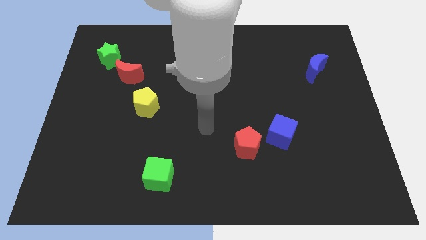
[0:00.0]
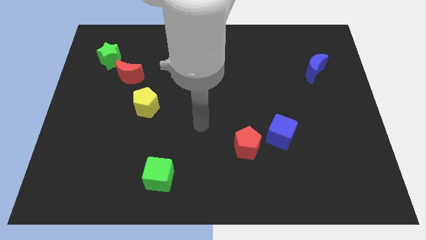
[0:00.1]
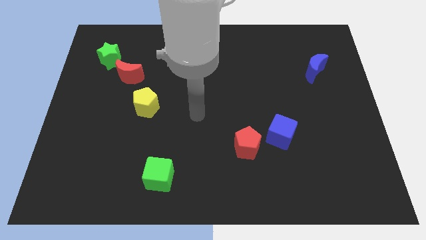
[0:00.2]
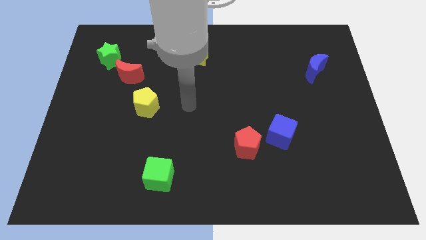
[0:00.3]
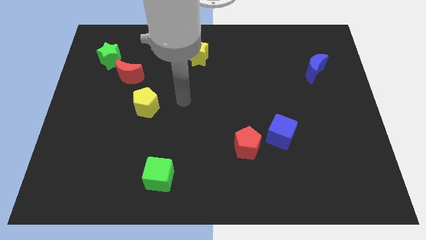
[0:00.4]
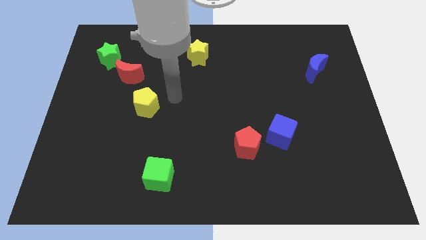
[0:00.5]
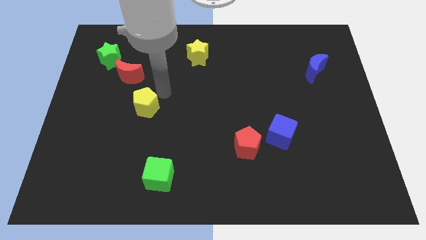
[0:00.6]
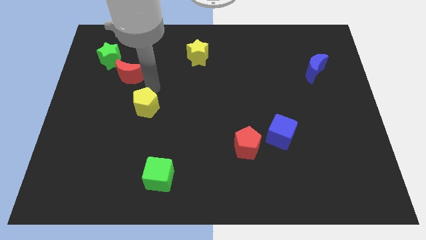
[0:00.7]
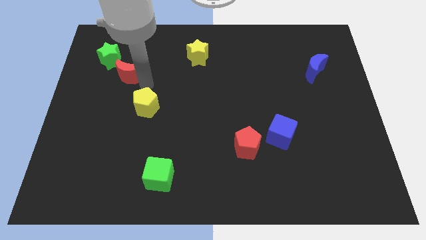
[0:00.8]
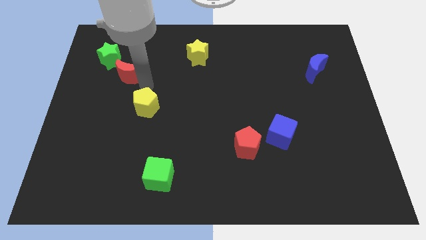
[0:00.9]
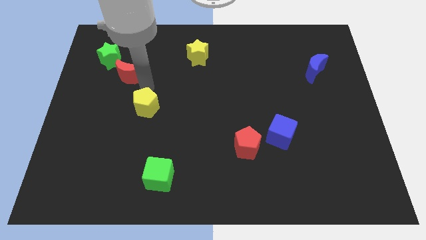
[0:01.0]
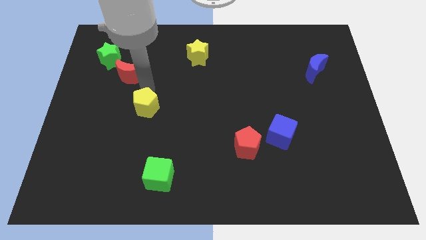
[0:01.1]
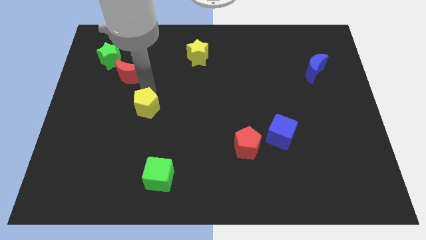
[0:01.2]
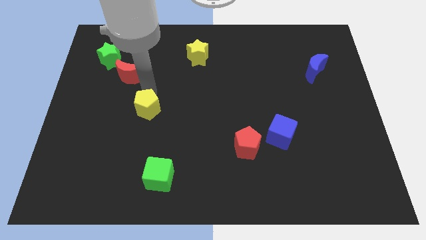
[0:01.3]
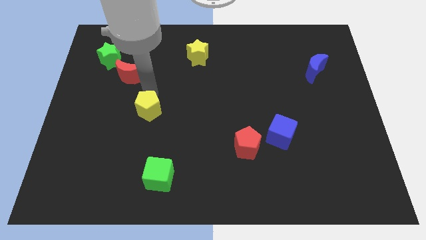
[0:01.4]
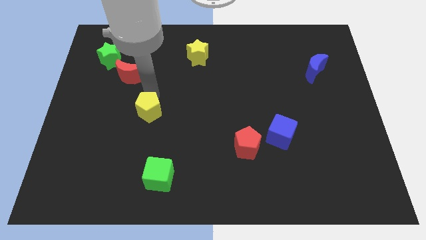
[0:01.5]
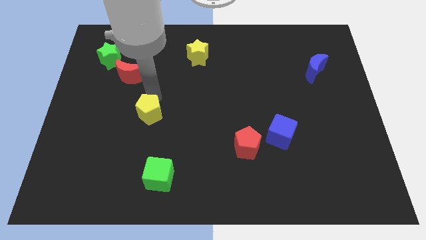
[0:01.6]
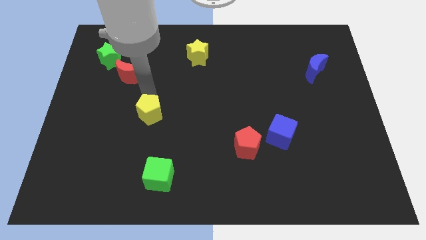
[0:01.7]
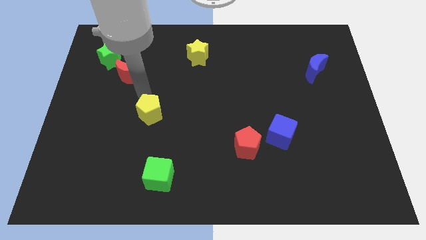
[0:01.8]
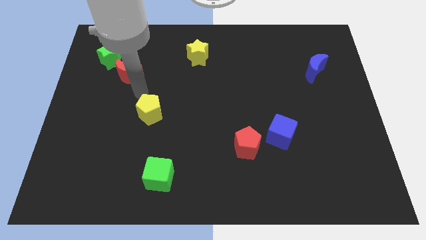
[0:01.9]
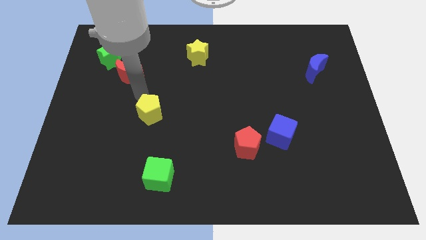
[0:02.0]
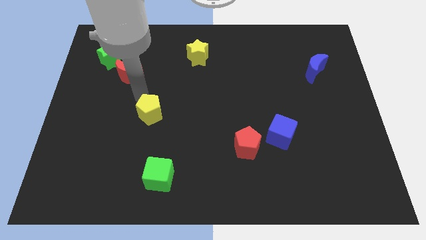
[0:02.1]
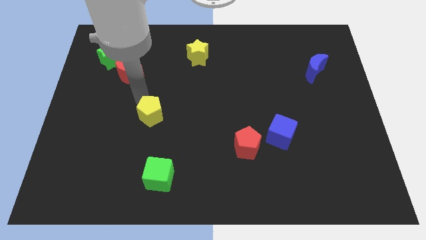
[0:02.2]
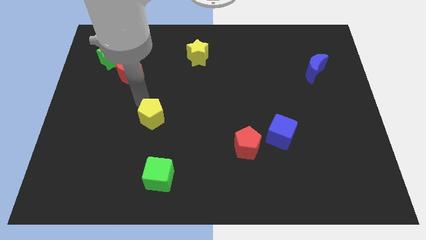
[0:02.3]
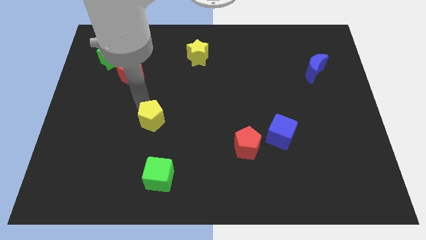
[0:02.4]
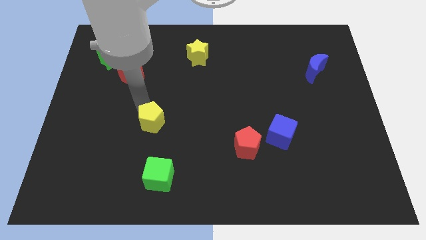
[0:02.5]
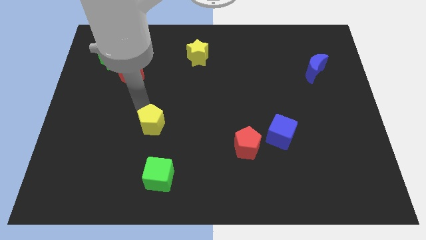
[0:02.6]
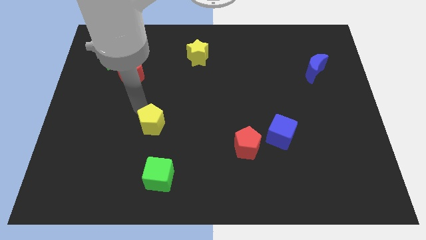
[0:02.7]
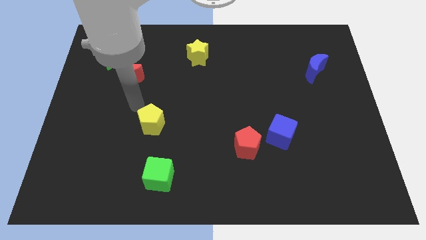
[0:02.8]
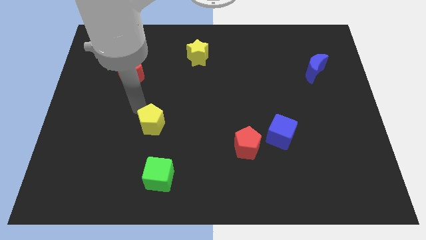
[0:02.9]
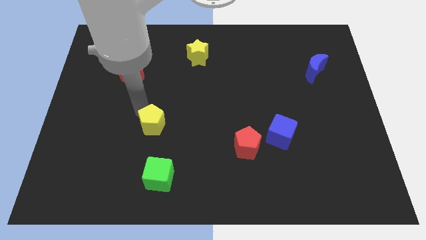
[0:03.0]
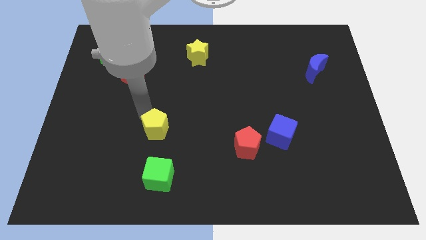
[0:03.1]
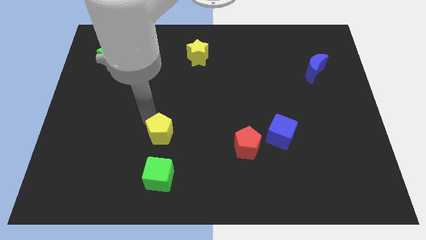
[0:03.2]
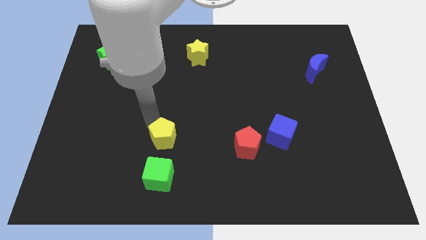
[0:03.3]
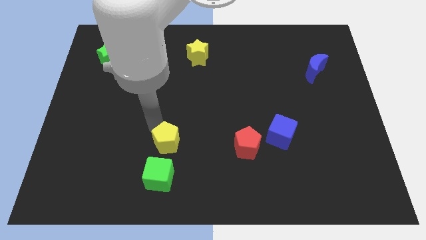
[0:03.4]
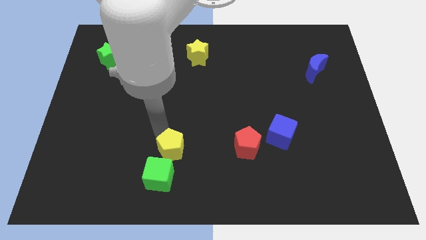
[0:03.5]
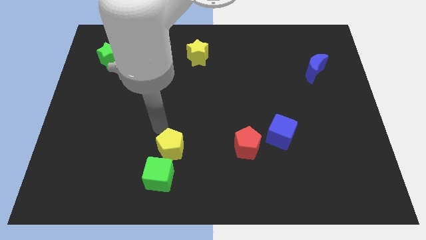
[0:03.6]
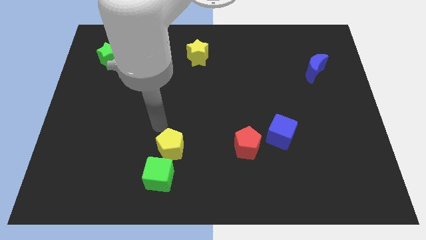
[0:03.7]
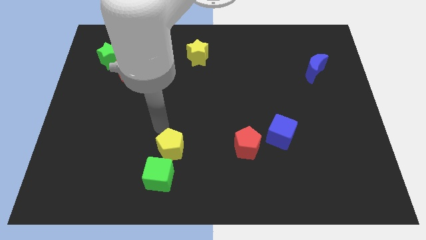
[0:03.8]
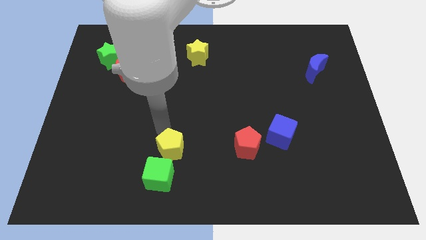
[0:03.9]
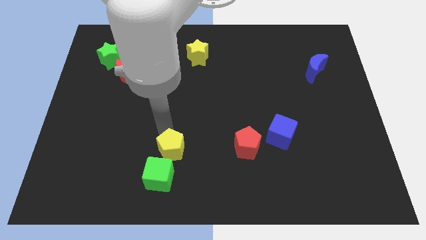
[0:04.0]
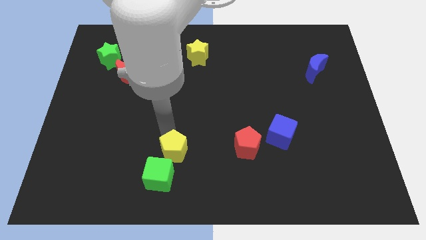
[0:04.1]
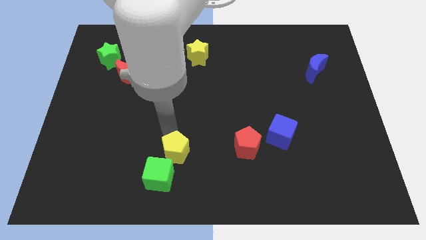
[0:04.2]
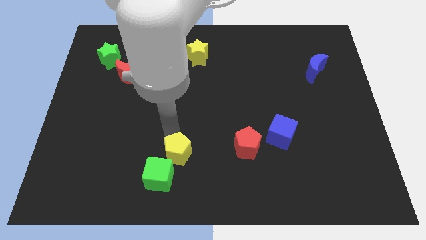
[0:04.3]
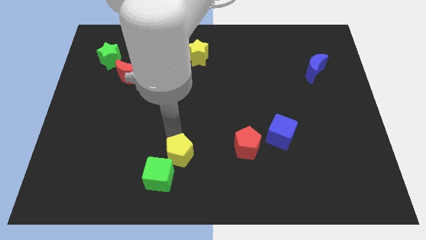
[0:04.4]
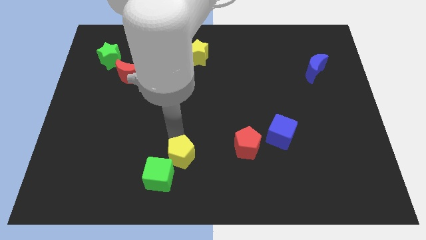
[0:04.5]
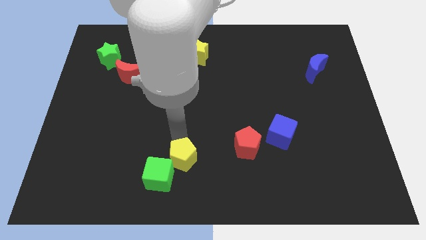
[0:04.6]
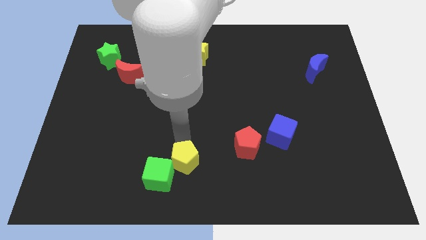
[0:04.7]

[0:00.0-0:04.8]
slide the yellow pentagon to the bottom side

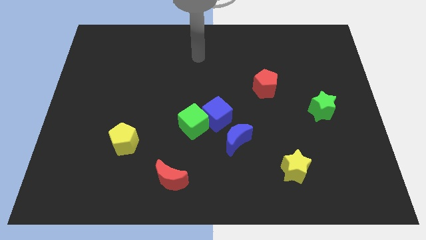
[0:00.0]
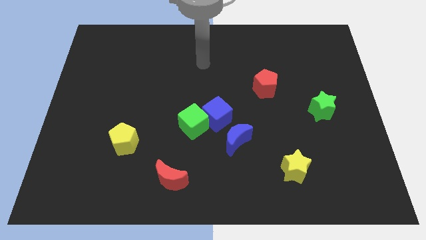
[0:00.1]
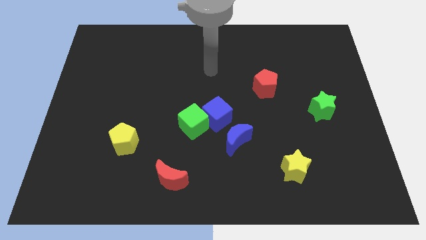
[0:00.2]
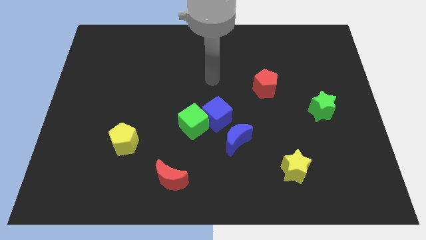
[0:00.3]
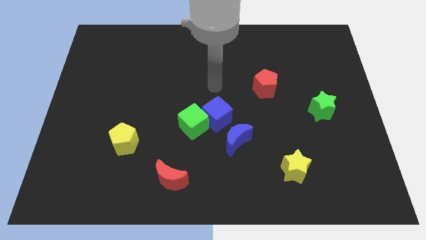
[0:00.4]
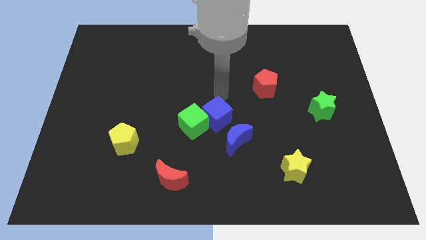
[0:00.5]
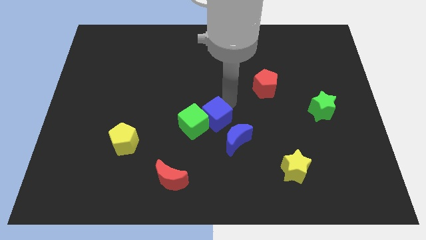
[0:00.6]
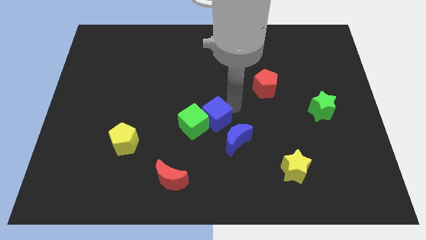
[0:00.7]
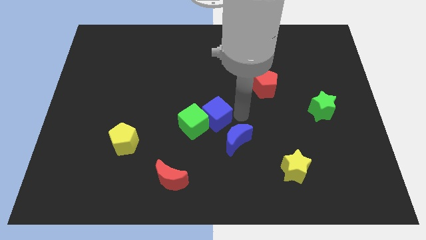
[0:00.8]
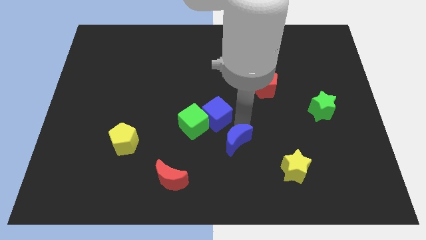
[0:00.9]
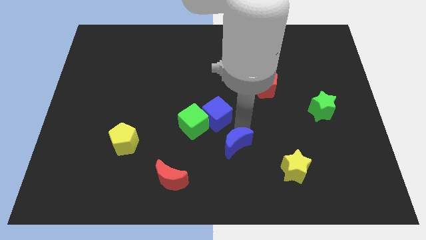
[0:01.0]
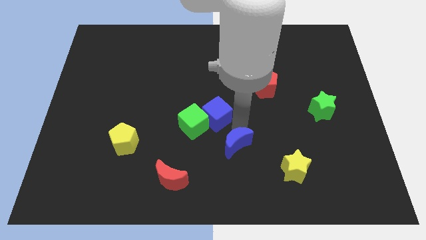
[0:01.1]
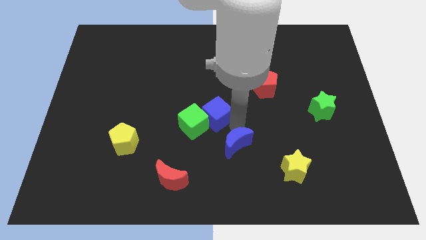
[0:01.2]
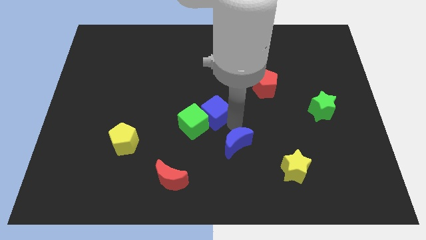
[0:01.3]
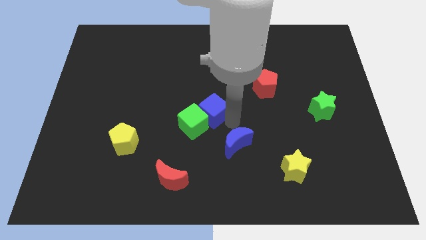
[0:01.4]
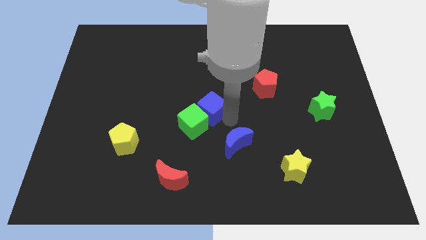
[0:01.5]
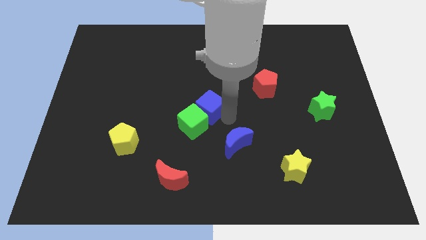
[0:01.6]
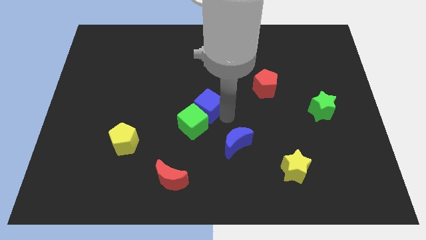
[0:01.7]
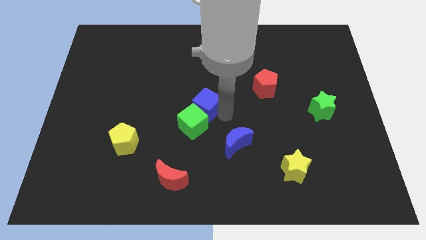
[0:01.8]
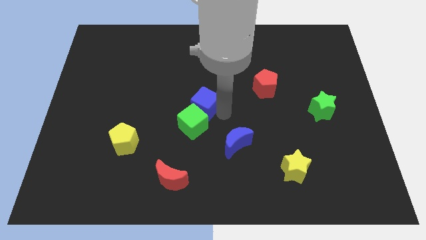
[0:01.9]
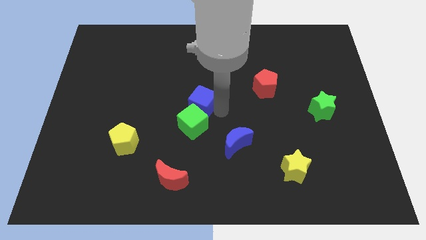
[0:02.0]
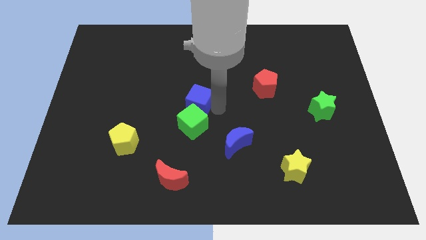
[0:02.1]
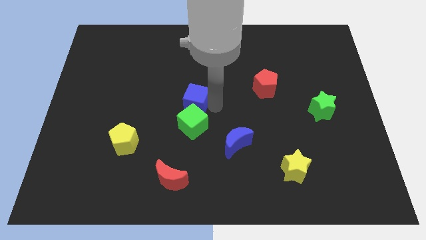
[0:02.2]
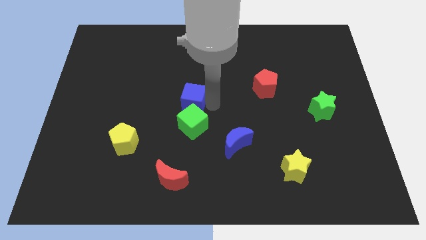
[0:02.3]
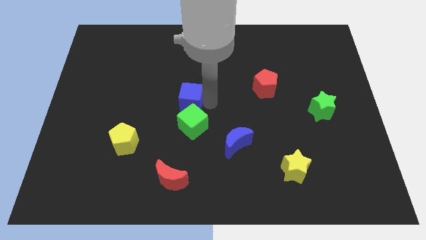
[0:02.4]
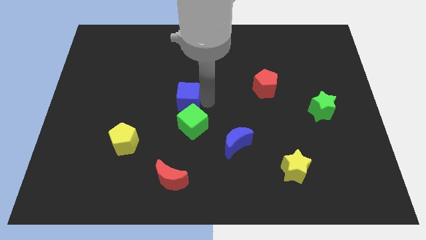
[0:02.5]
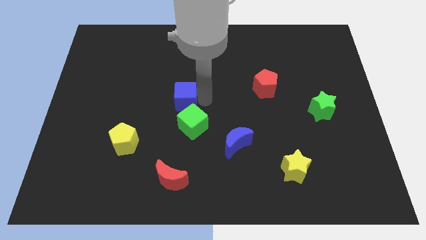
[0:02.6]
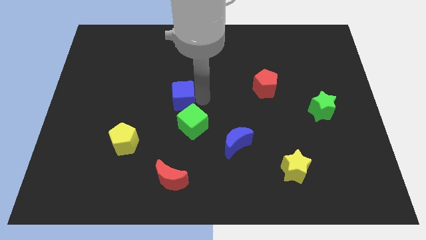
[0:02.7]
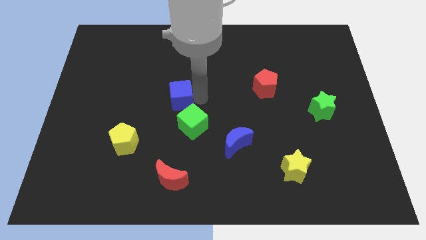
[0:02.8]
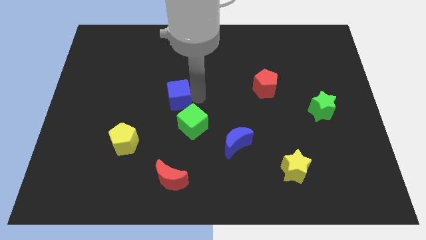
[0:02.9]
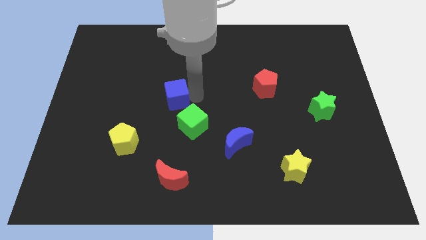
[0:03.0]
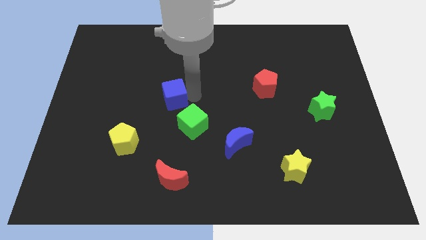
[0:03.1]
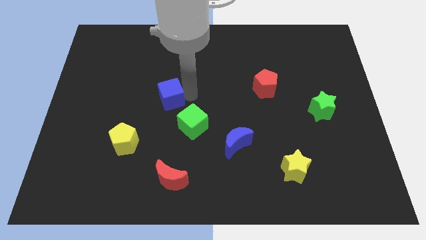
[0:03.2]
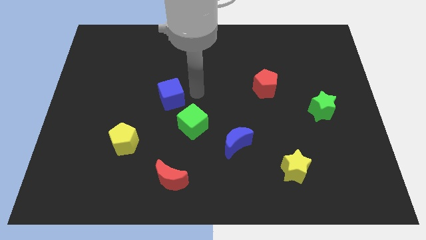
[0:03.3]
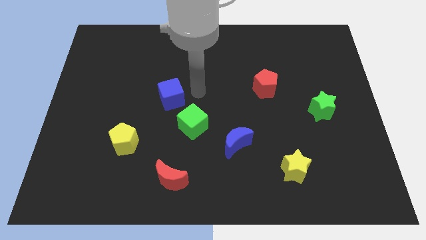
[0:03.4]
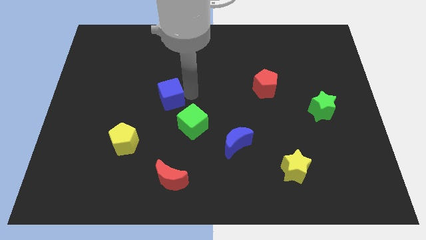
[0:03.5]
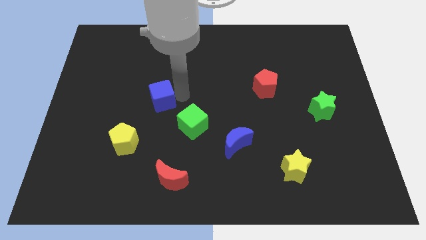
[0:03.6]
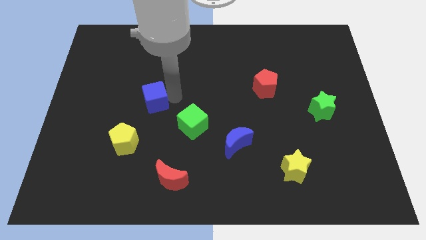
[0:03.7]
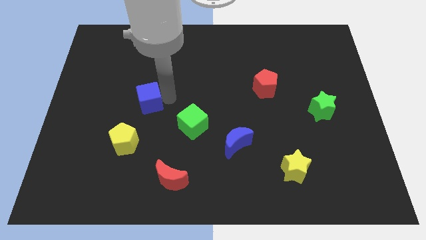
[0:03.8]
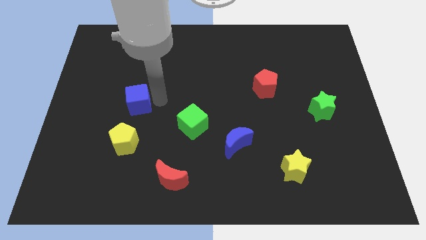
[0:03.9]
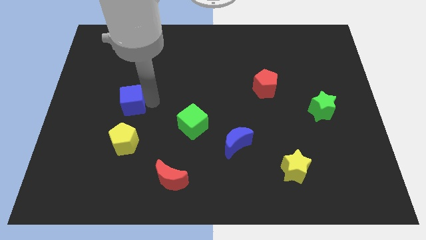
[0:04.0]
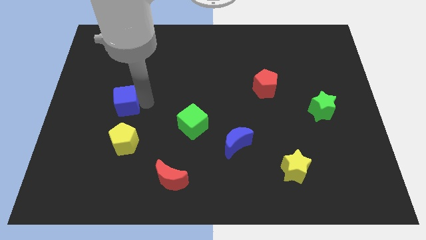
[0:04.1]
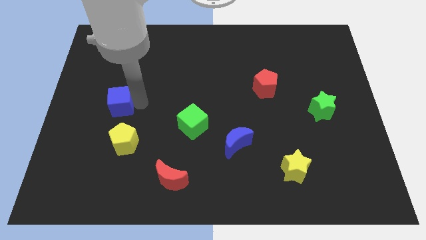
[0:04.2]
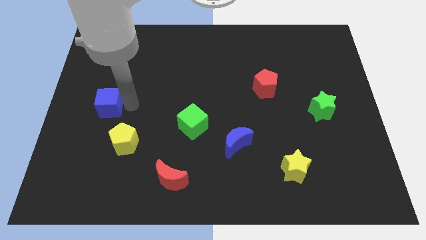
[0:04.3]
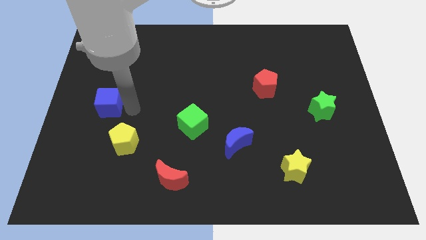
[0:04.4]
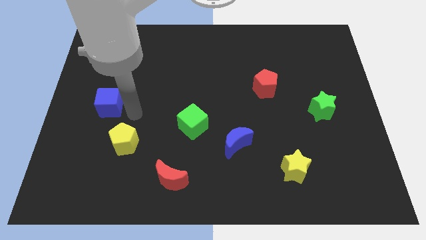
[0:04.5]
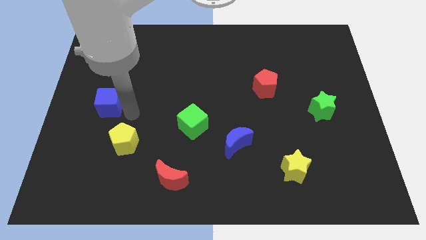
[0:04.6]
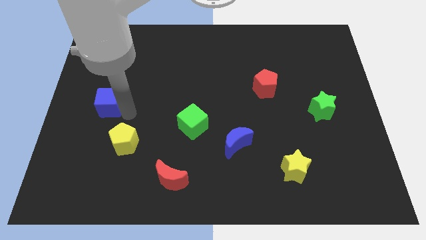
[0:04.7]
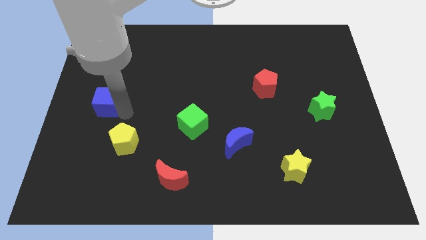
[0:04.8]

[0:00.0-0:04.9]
slide the blue cube to the left side
